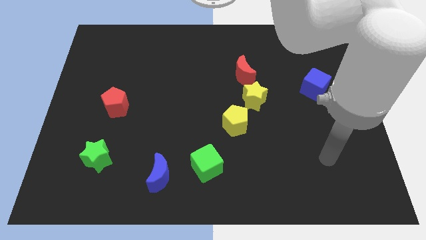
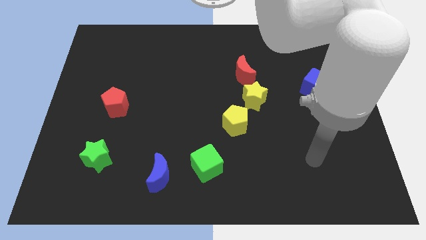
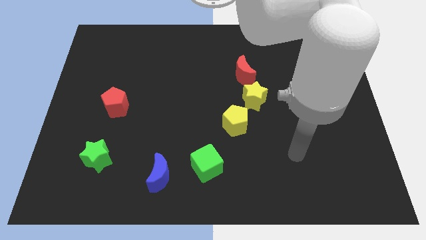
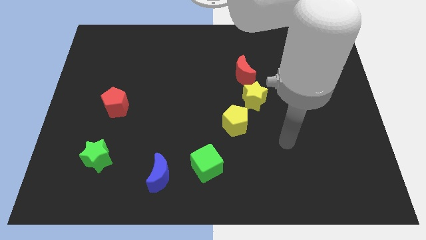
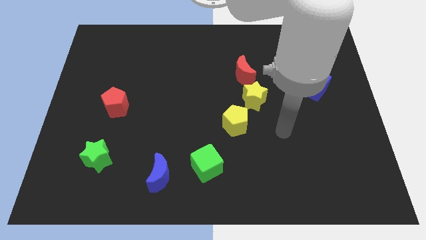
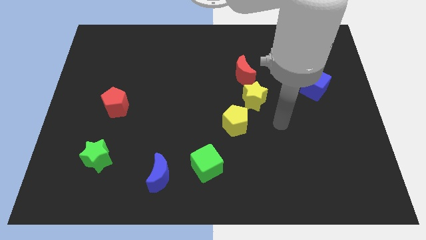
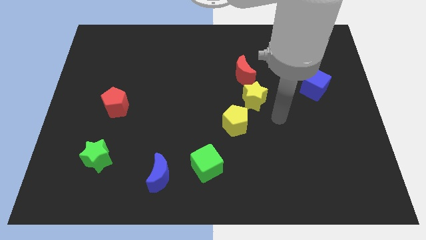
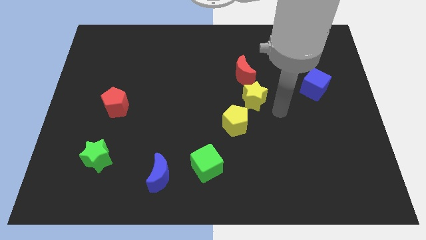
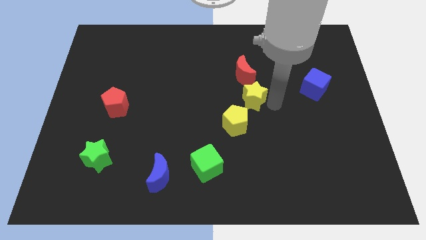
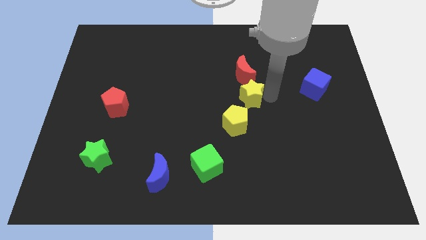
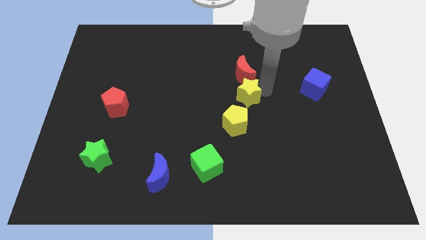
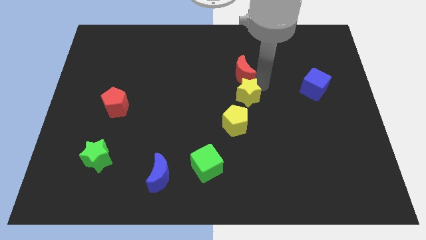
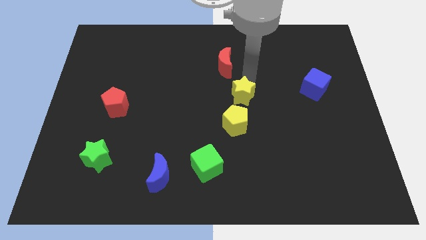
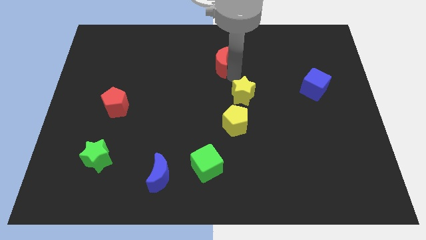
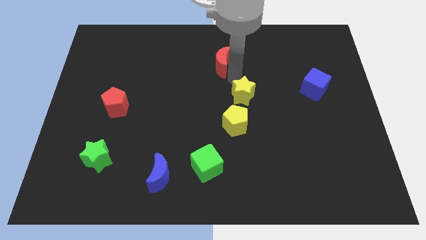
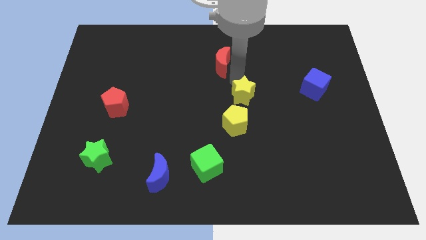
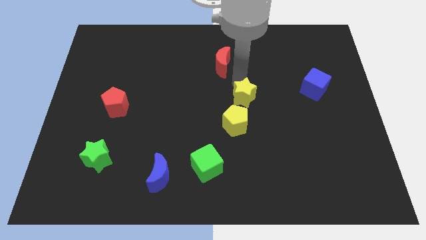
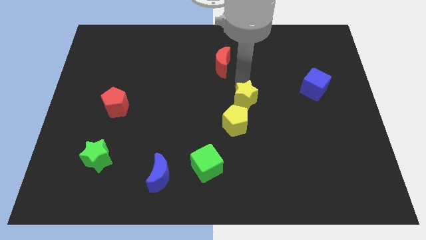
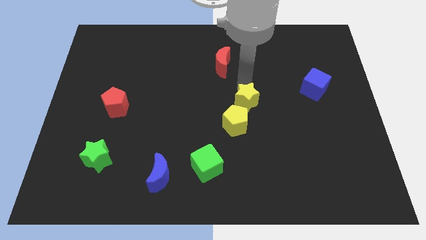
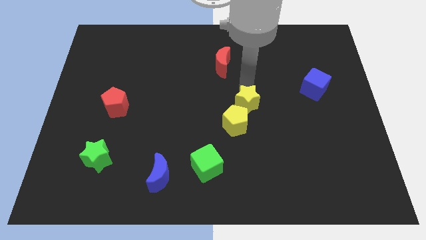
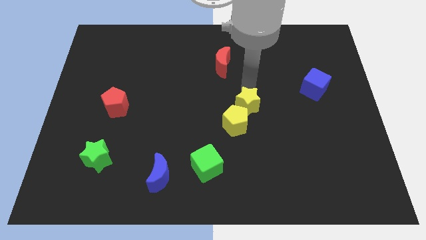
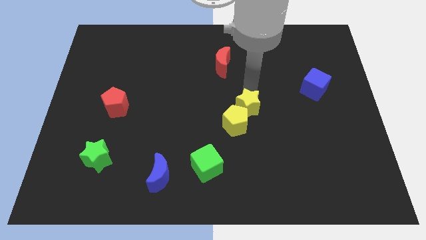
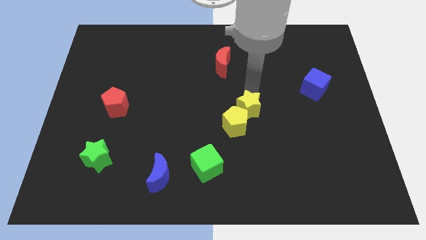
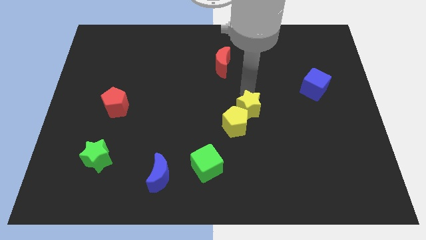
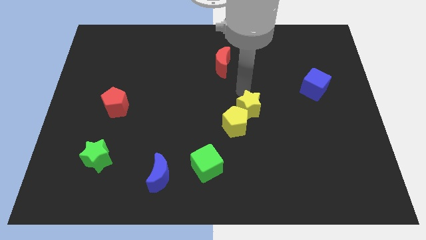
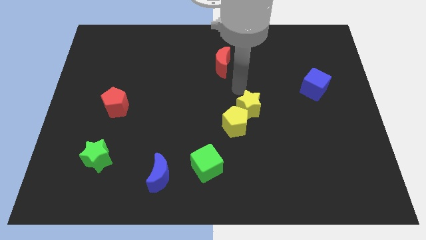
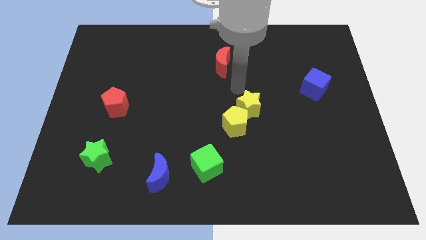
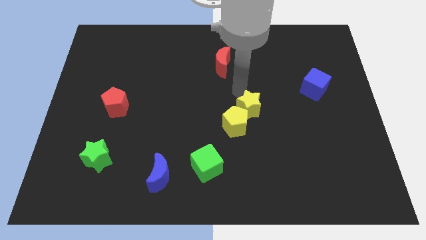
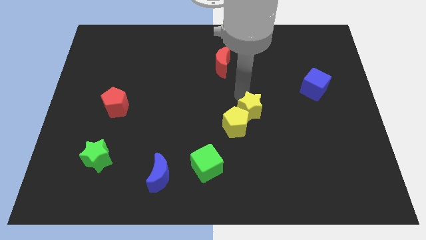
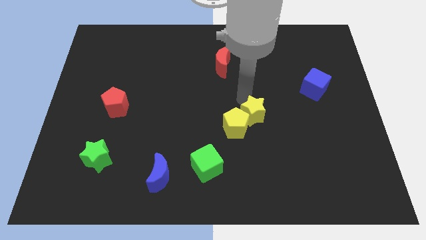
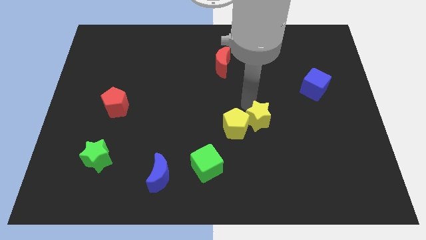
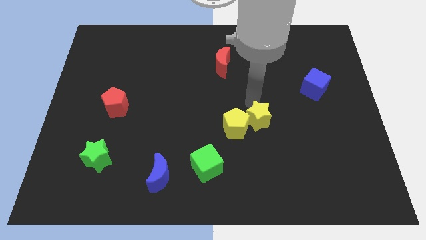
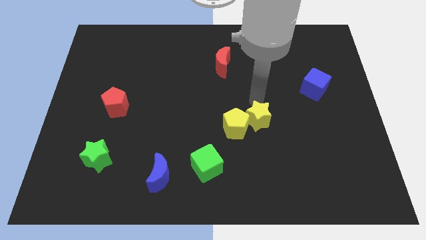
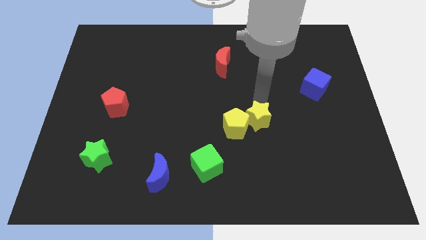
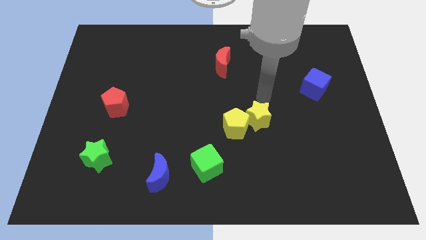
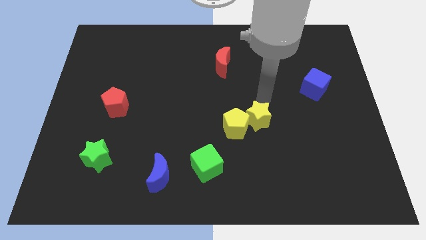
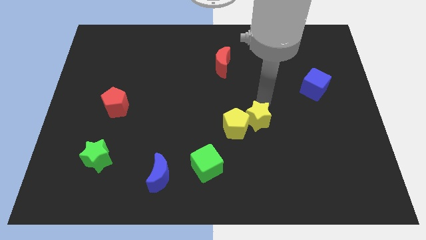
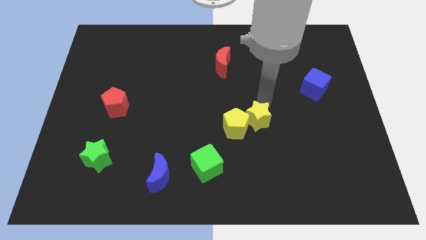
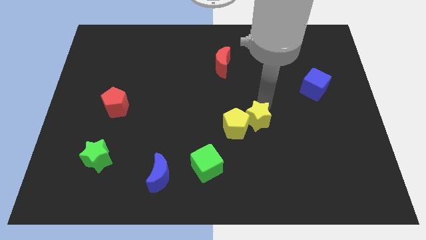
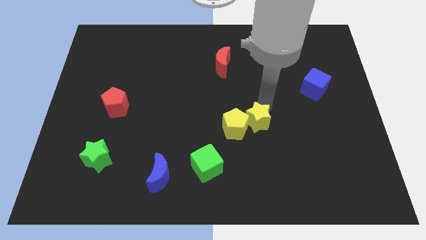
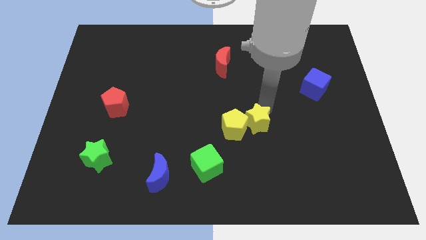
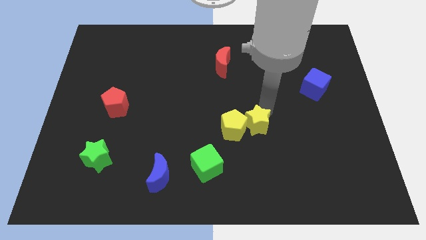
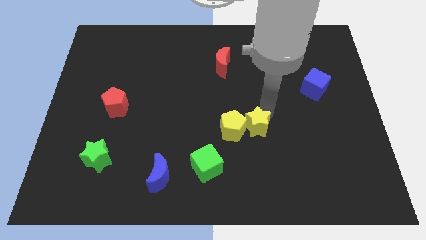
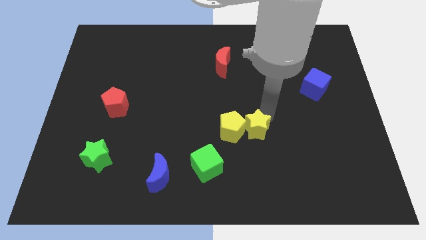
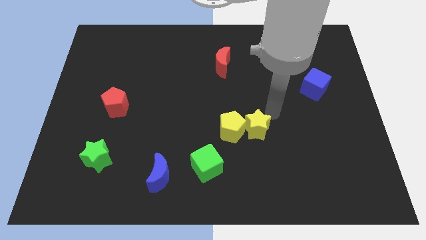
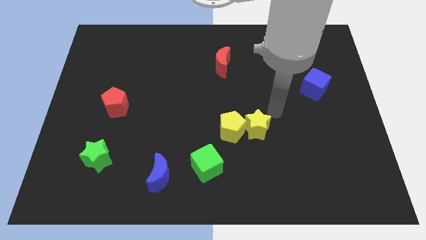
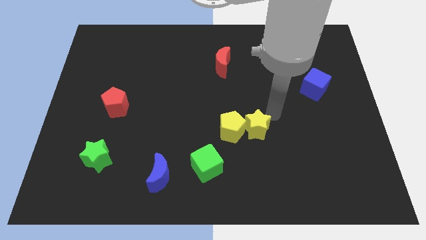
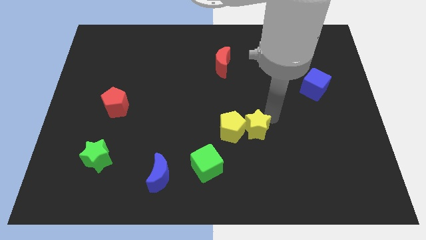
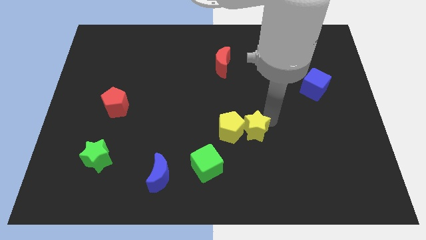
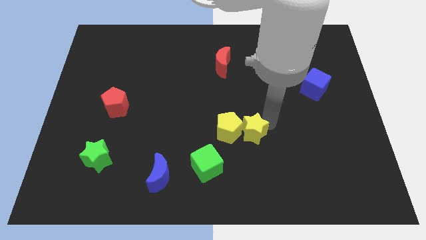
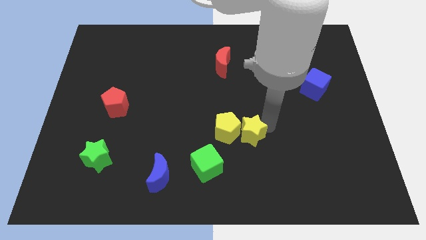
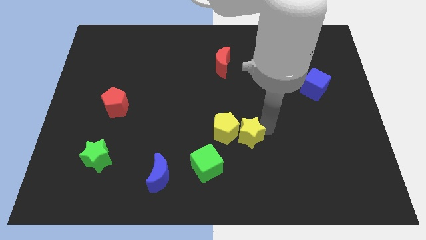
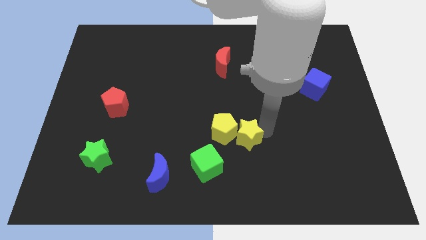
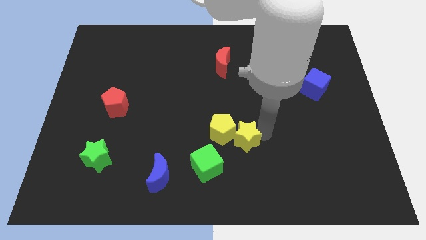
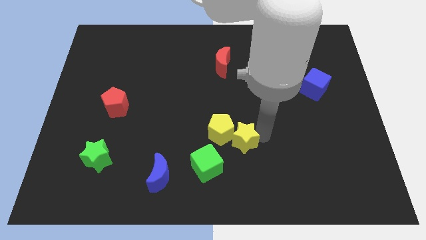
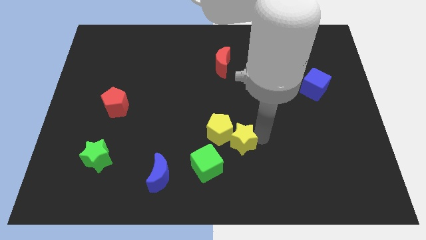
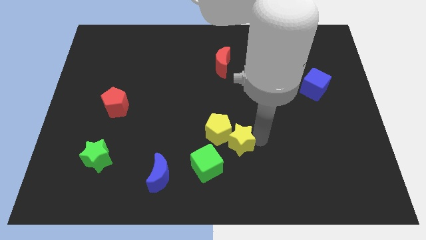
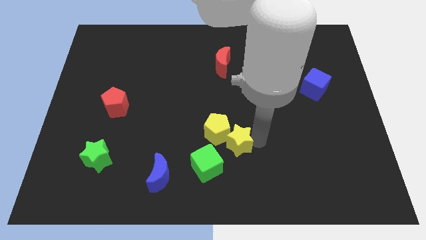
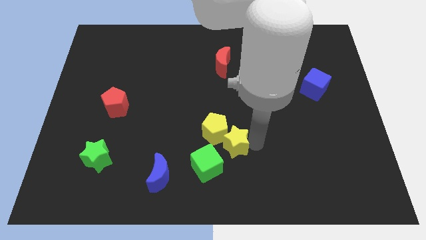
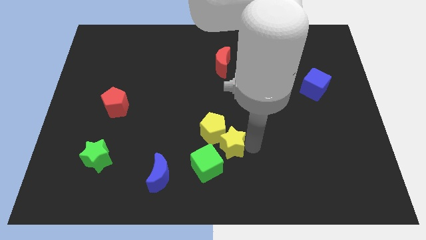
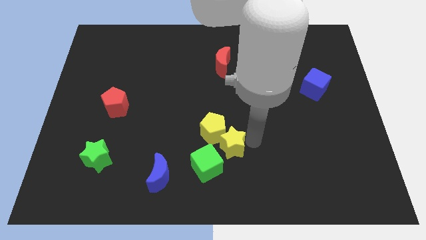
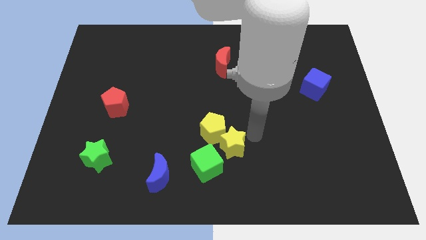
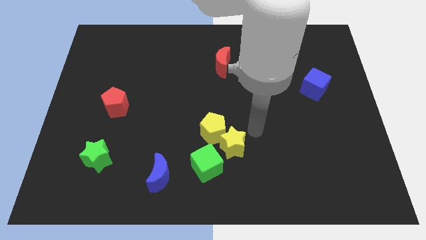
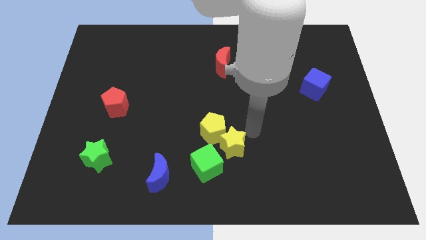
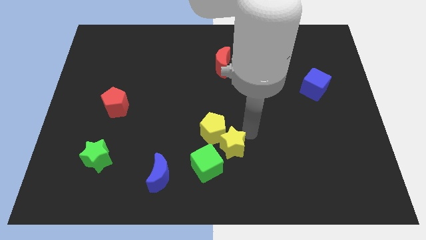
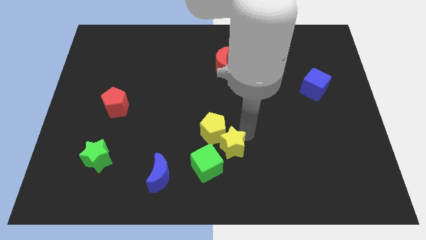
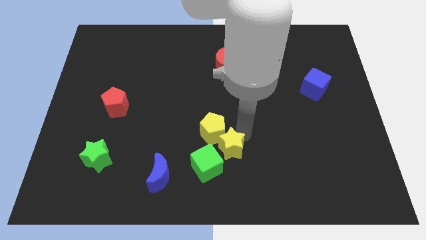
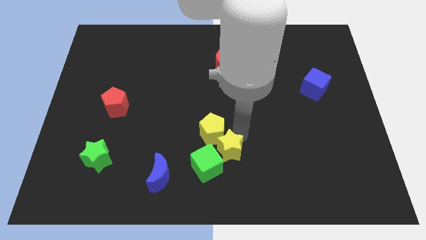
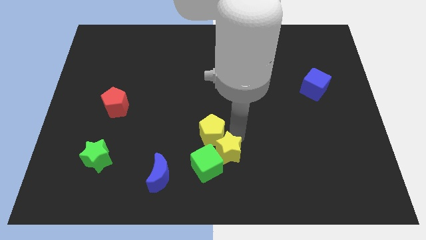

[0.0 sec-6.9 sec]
slide the yellow star close to the green cube
